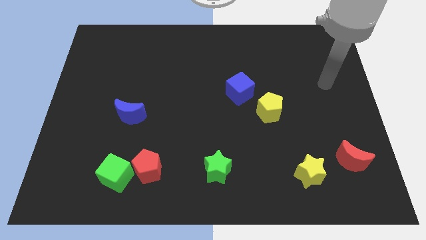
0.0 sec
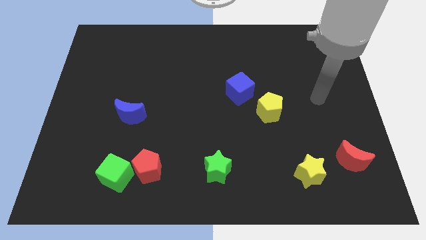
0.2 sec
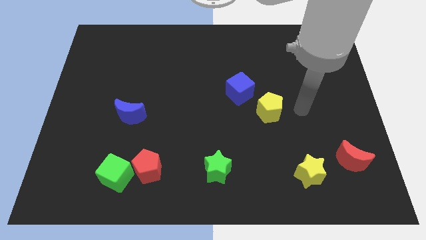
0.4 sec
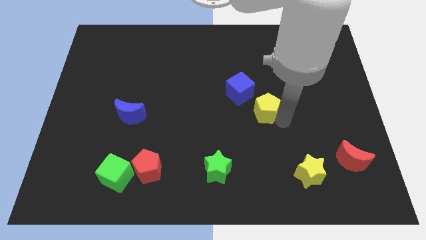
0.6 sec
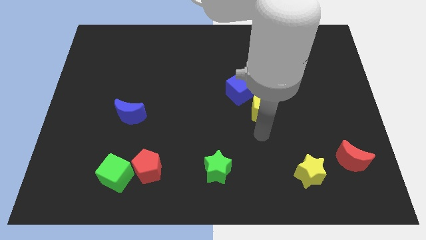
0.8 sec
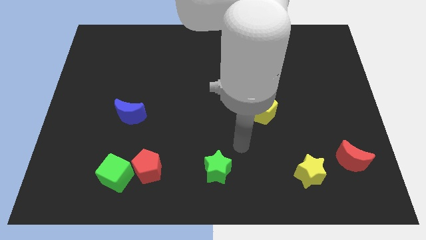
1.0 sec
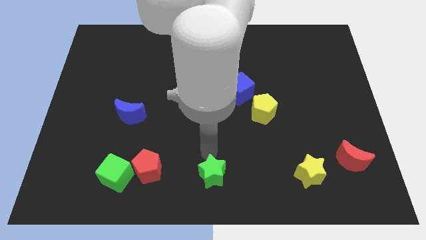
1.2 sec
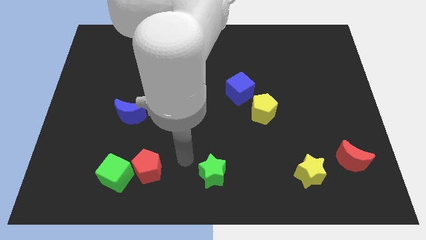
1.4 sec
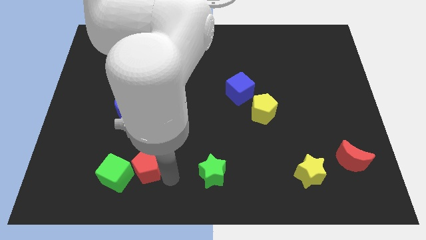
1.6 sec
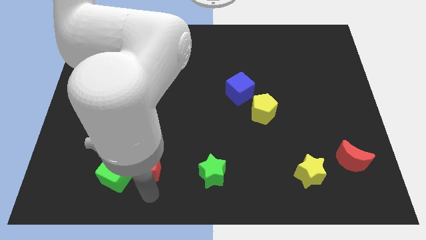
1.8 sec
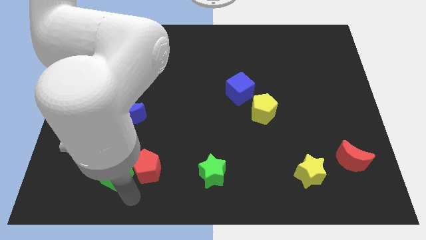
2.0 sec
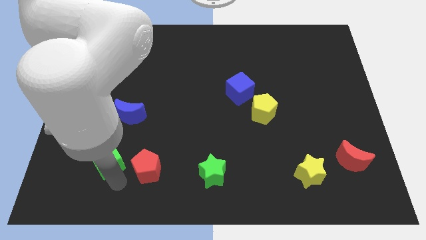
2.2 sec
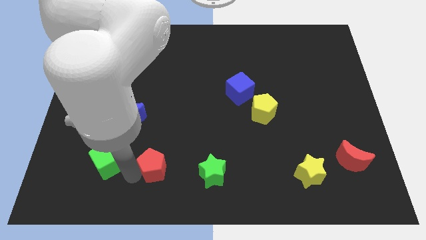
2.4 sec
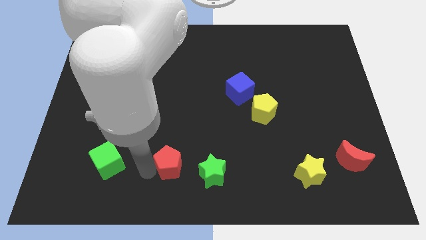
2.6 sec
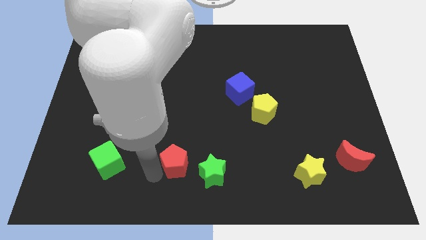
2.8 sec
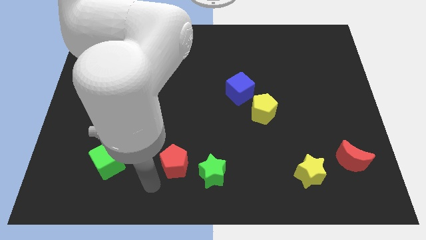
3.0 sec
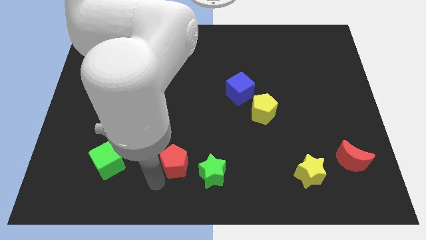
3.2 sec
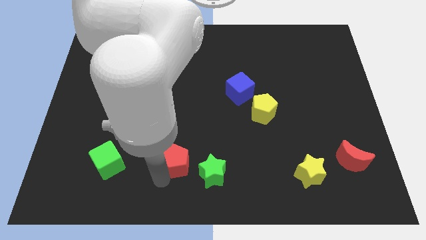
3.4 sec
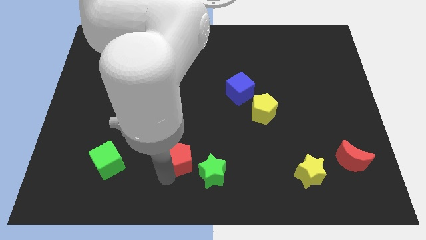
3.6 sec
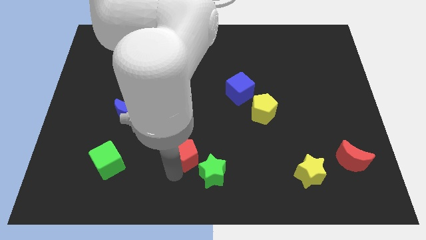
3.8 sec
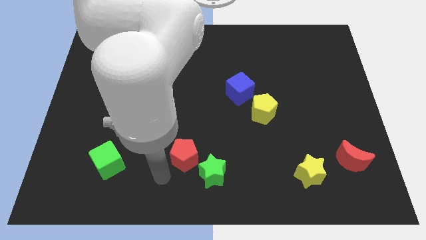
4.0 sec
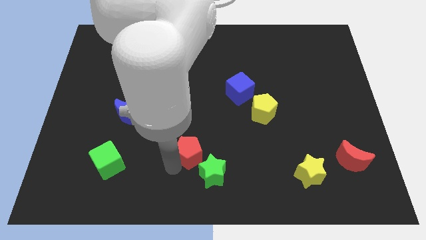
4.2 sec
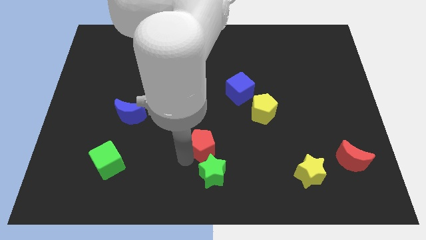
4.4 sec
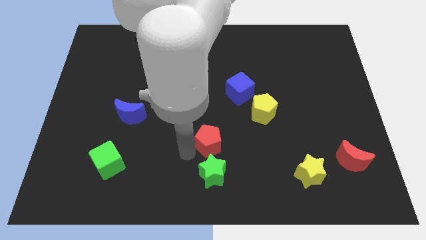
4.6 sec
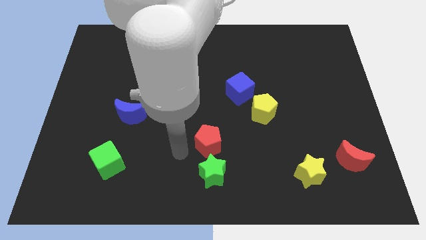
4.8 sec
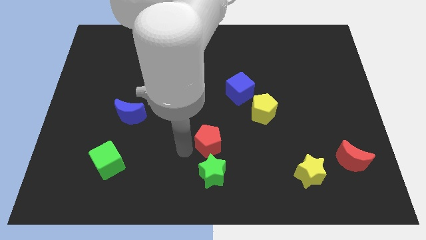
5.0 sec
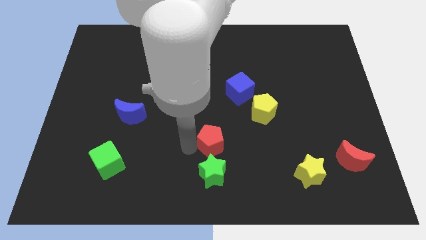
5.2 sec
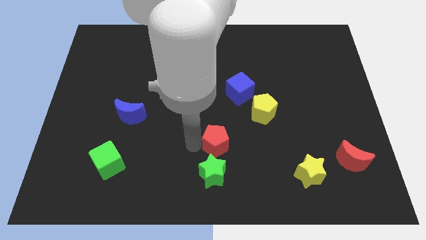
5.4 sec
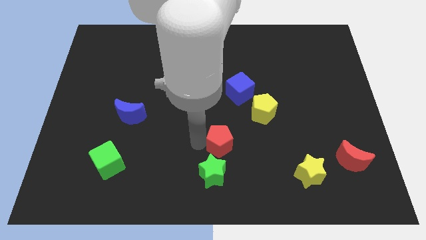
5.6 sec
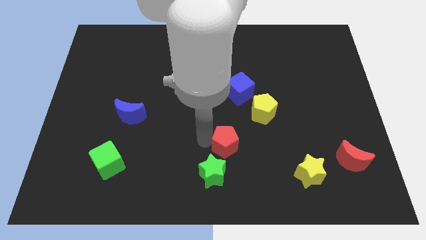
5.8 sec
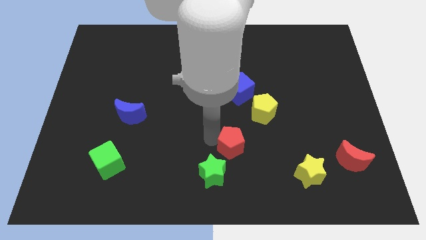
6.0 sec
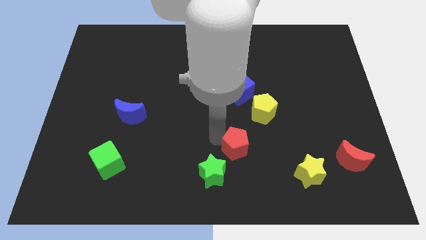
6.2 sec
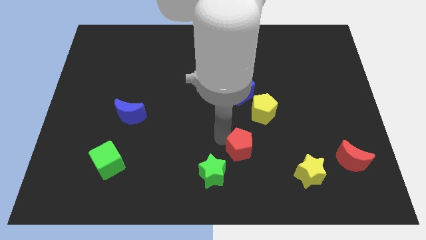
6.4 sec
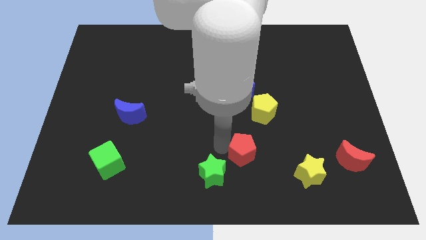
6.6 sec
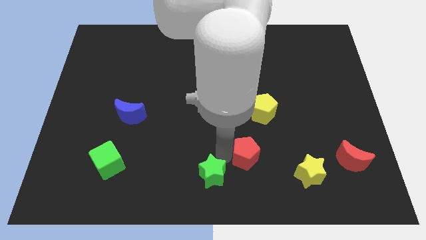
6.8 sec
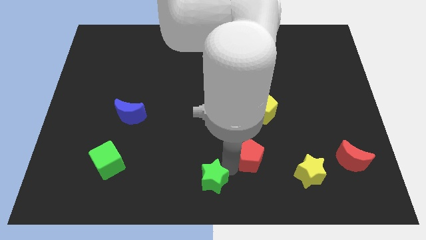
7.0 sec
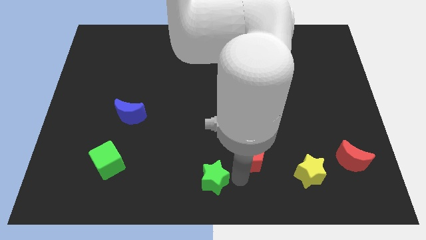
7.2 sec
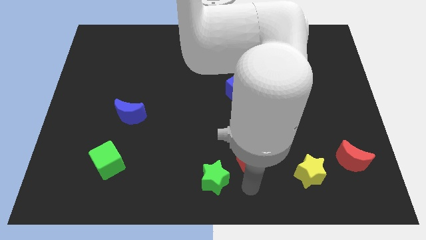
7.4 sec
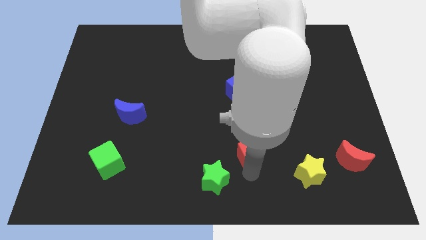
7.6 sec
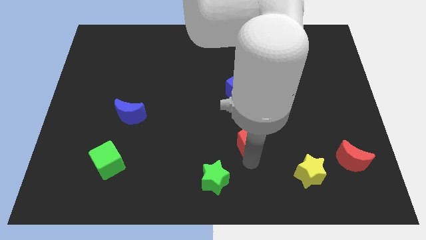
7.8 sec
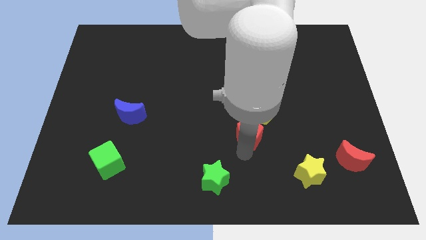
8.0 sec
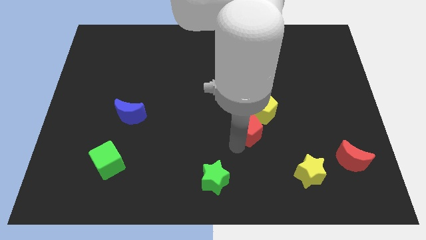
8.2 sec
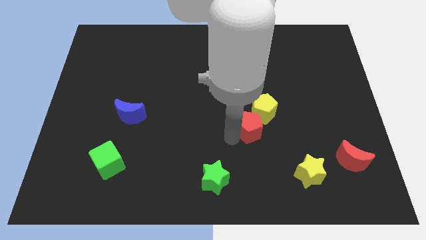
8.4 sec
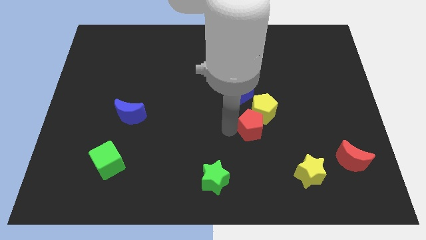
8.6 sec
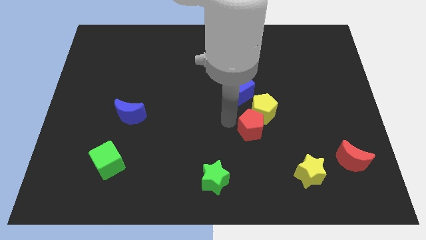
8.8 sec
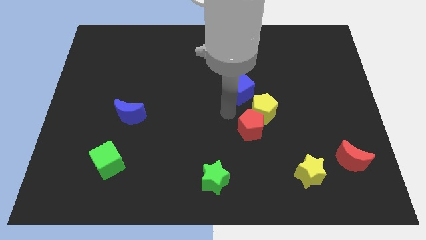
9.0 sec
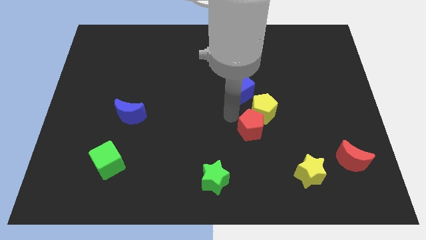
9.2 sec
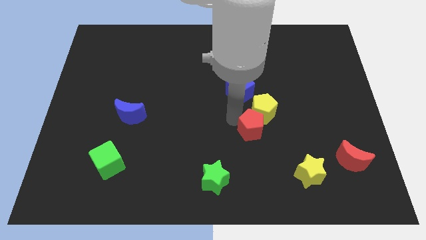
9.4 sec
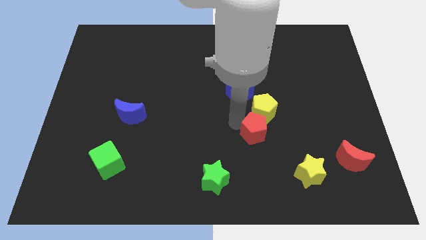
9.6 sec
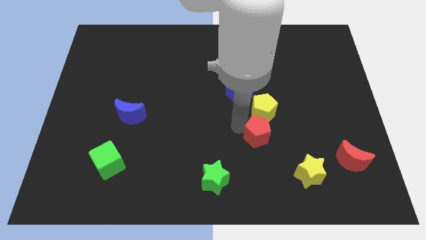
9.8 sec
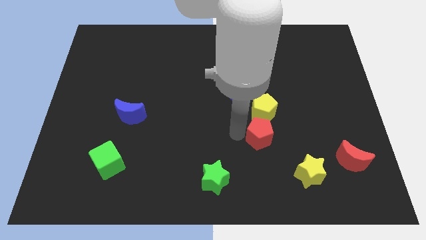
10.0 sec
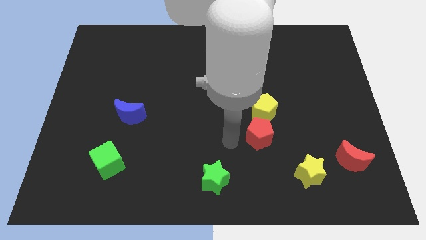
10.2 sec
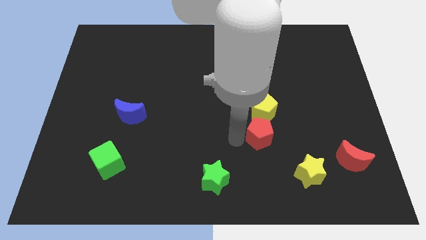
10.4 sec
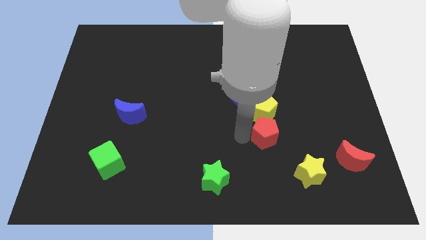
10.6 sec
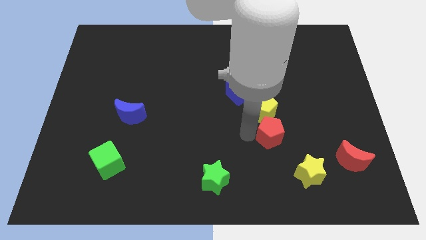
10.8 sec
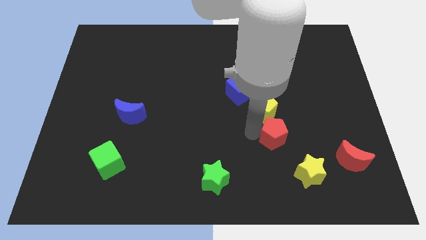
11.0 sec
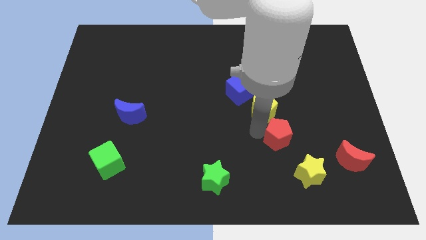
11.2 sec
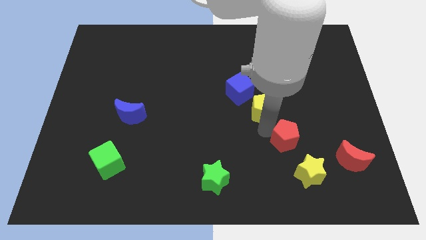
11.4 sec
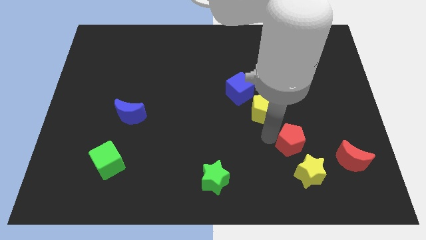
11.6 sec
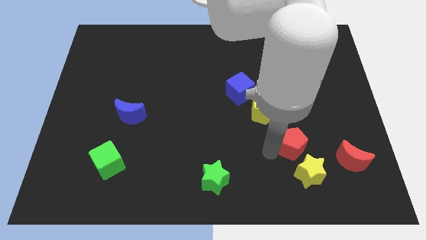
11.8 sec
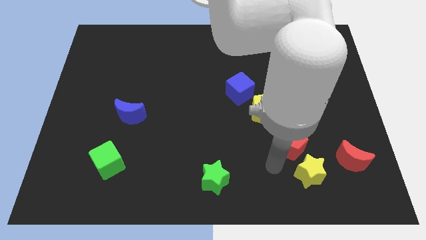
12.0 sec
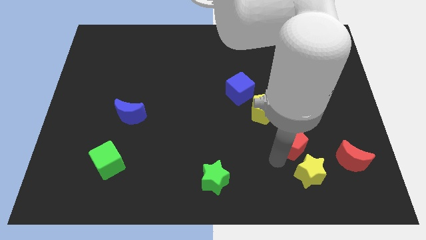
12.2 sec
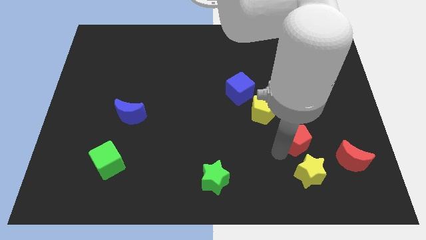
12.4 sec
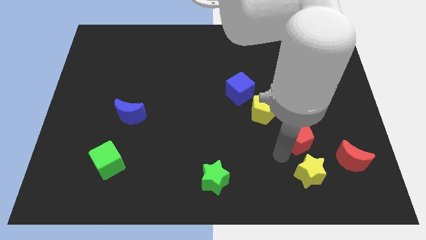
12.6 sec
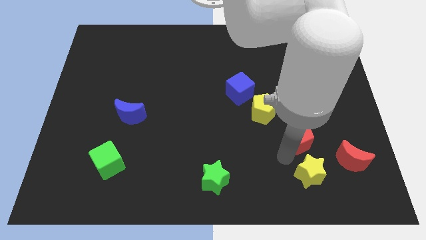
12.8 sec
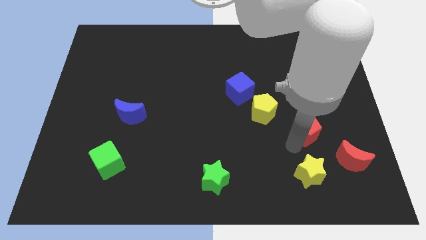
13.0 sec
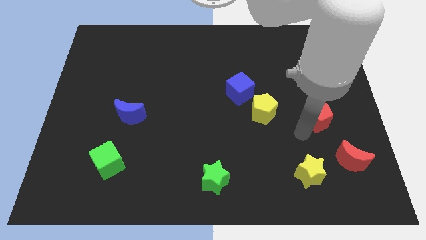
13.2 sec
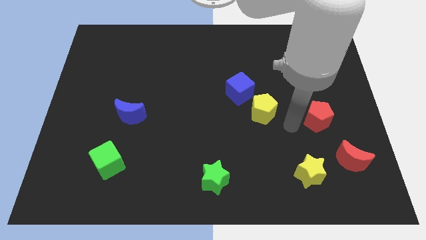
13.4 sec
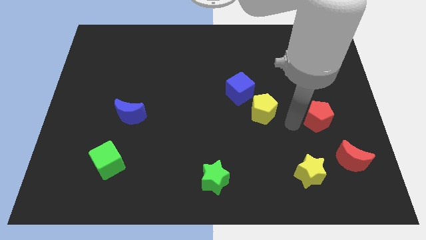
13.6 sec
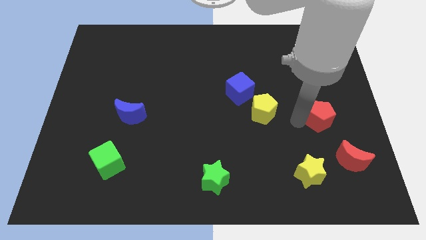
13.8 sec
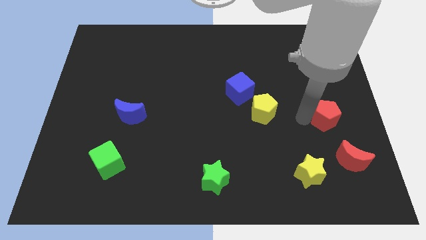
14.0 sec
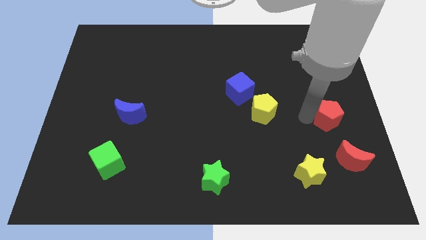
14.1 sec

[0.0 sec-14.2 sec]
move the red pentagon to the right side
